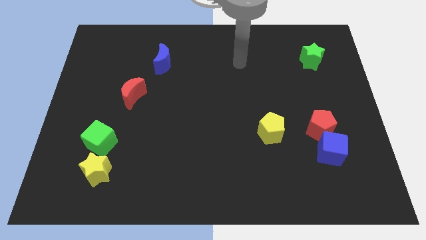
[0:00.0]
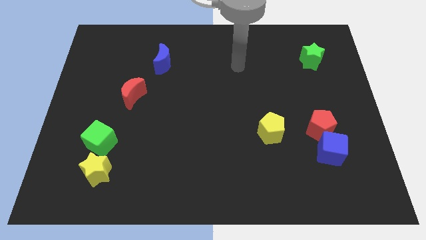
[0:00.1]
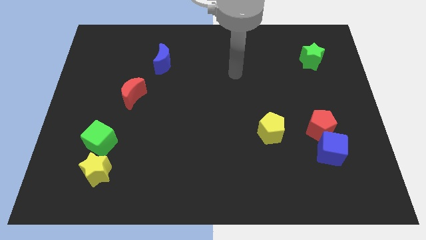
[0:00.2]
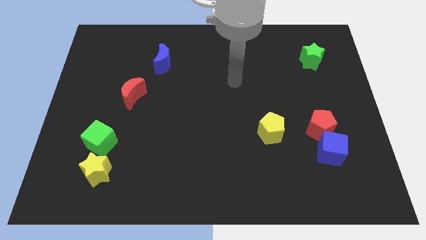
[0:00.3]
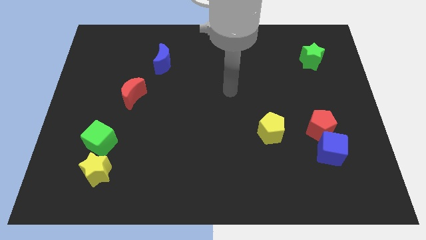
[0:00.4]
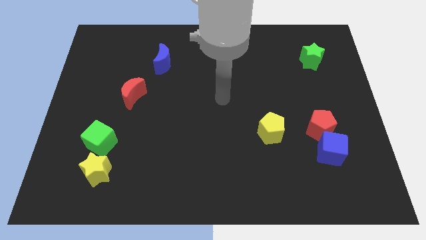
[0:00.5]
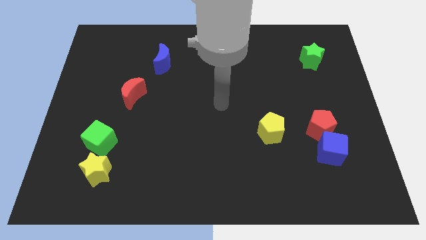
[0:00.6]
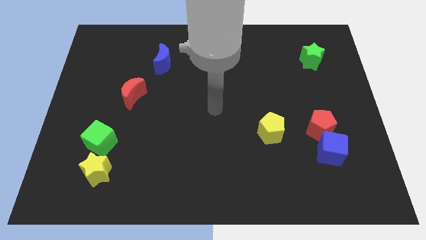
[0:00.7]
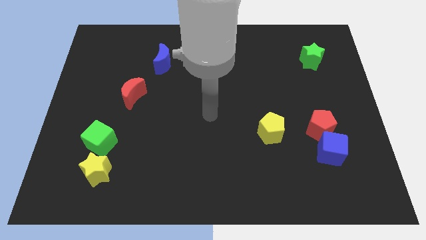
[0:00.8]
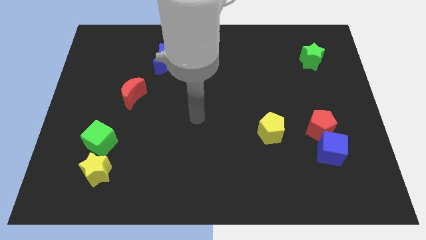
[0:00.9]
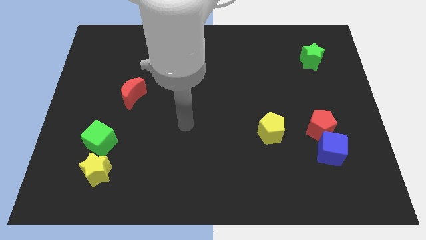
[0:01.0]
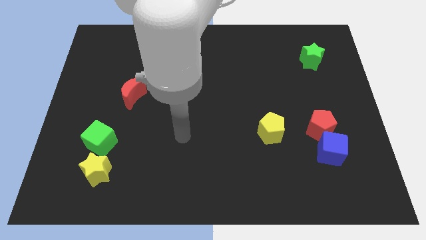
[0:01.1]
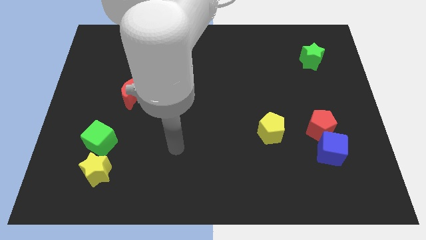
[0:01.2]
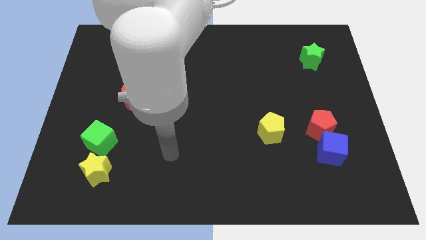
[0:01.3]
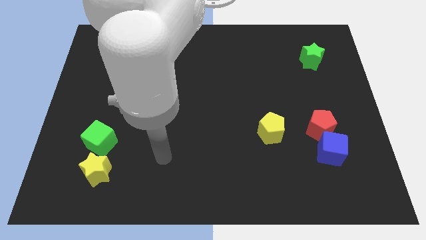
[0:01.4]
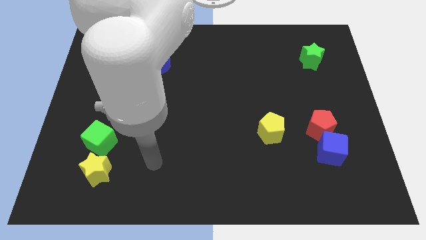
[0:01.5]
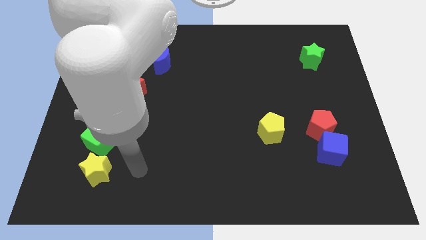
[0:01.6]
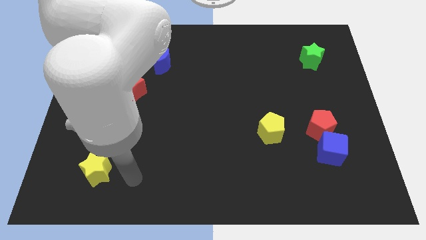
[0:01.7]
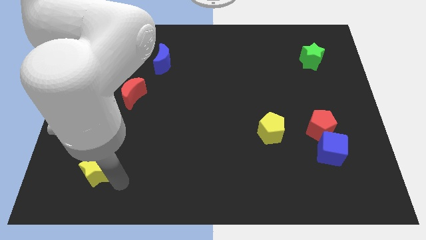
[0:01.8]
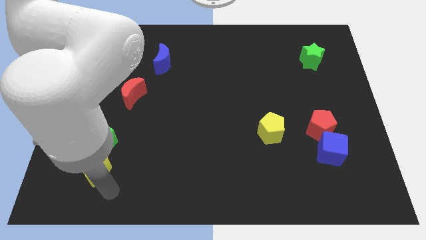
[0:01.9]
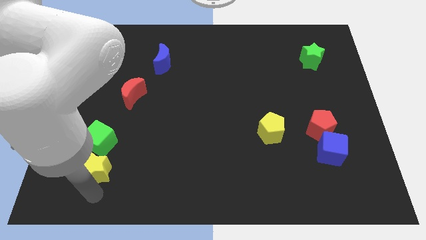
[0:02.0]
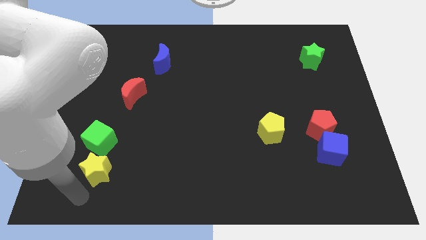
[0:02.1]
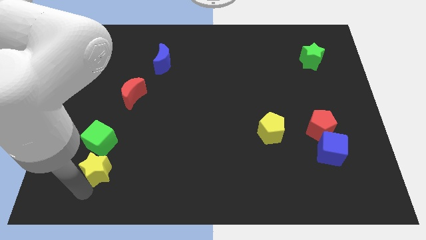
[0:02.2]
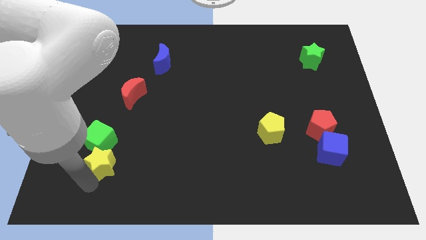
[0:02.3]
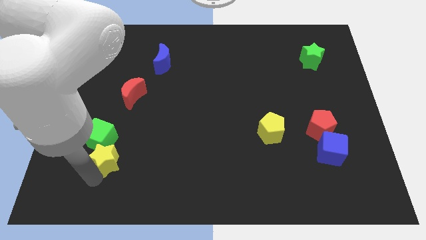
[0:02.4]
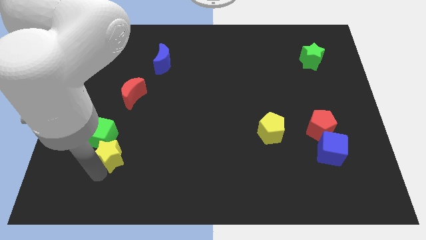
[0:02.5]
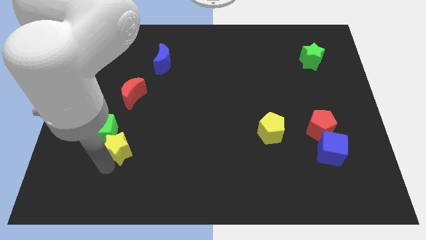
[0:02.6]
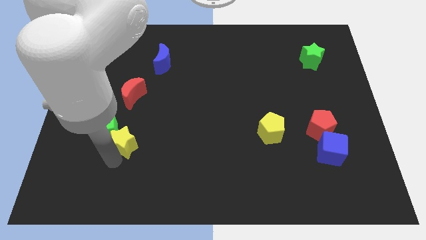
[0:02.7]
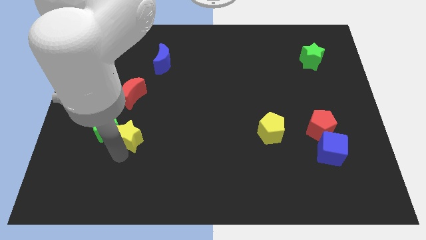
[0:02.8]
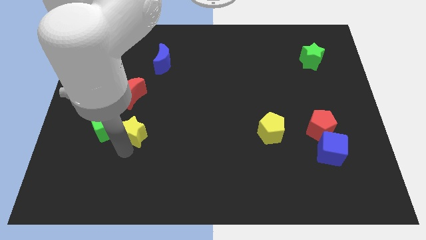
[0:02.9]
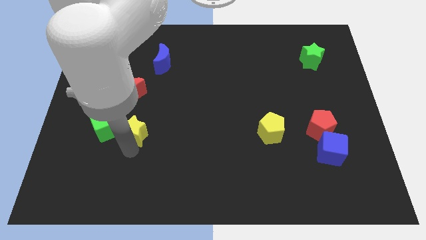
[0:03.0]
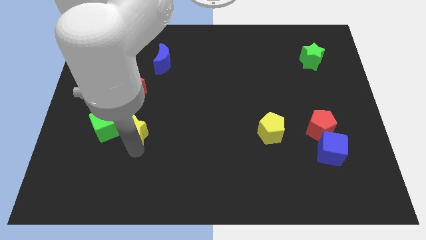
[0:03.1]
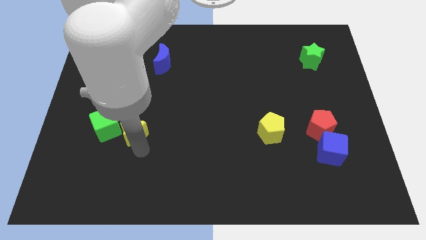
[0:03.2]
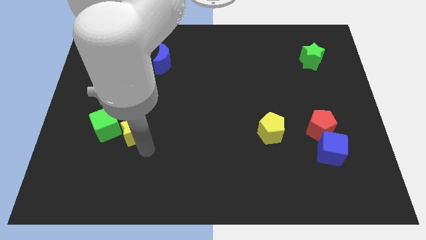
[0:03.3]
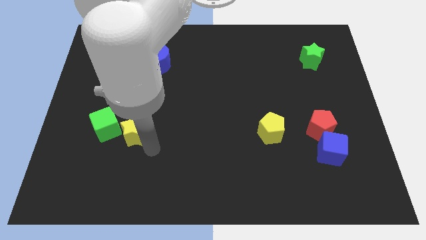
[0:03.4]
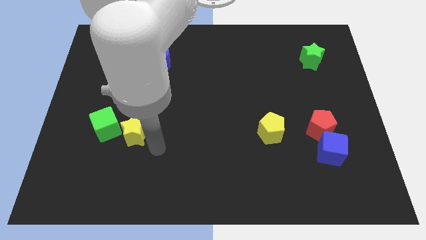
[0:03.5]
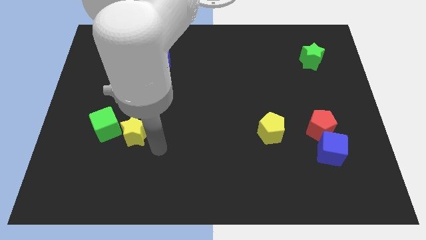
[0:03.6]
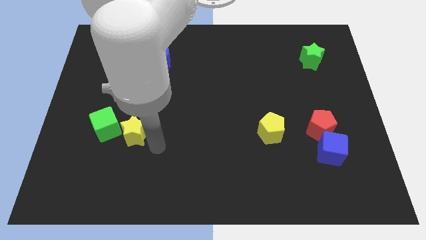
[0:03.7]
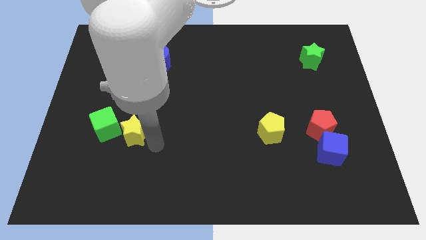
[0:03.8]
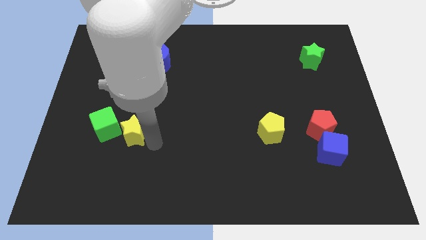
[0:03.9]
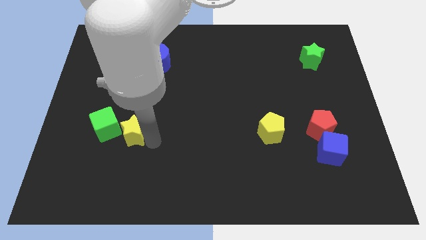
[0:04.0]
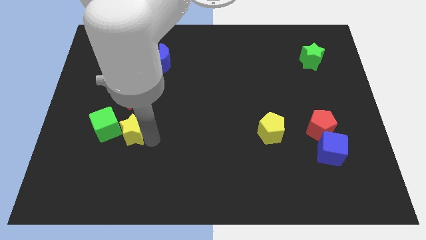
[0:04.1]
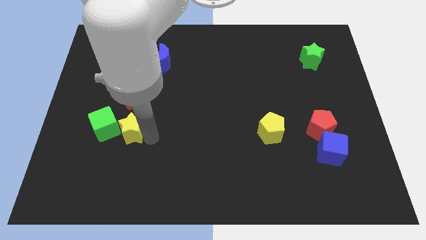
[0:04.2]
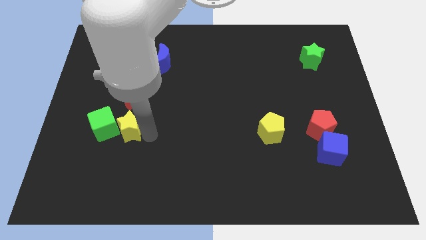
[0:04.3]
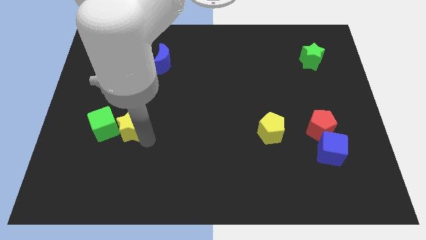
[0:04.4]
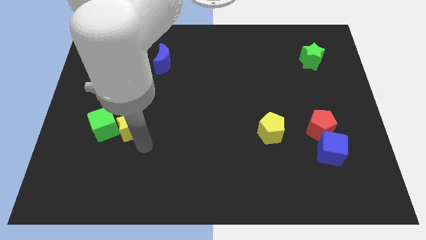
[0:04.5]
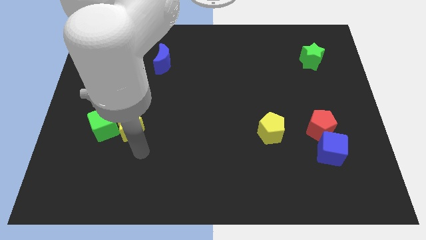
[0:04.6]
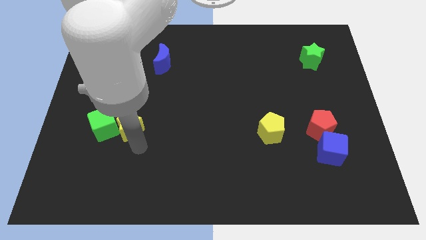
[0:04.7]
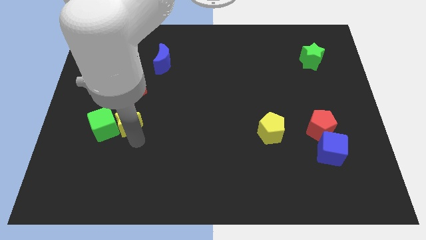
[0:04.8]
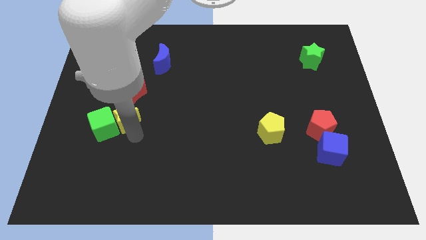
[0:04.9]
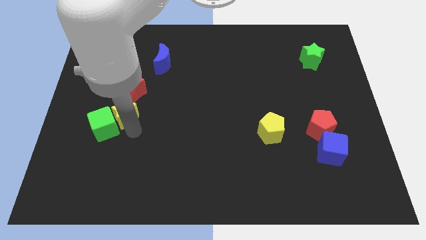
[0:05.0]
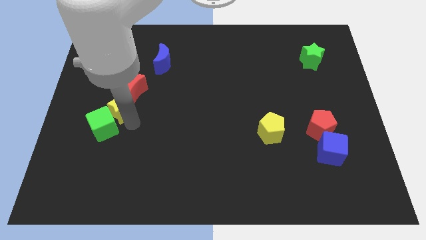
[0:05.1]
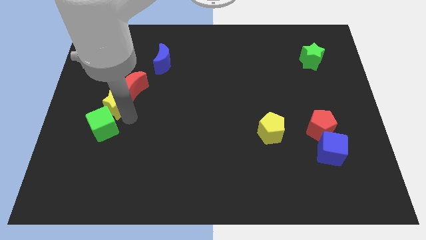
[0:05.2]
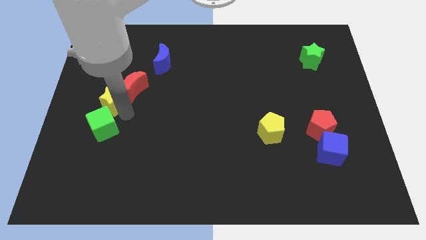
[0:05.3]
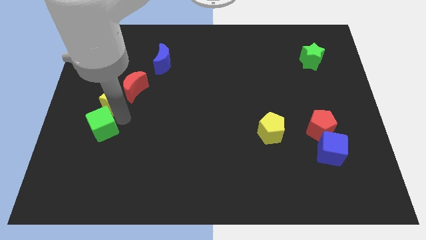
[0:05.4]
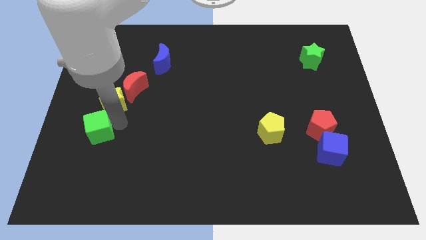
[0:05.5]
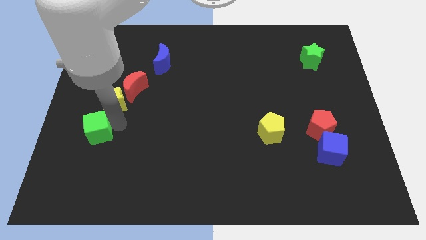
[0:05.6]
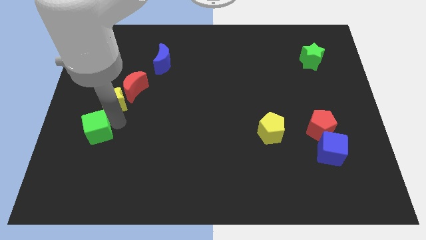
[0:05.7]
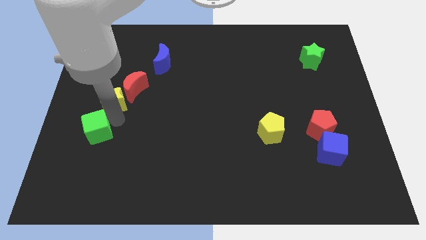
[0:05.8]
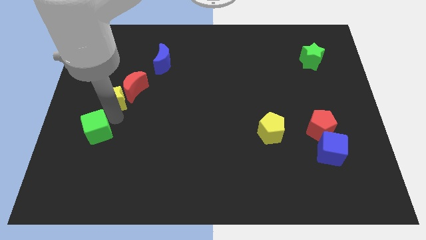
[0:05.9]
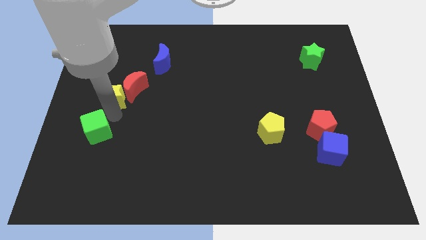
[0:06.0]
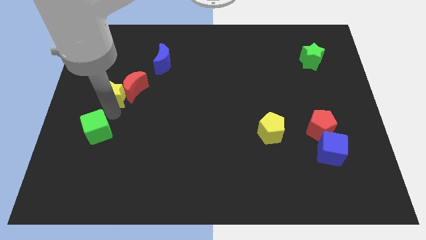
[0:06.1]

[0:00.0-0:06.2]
push the yellow star upwards

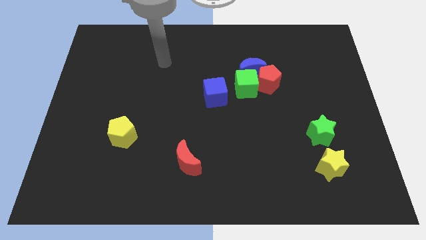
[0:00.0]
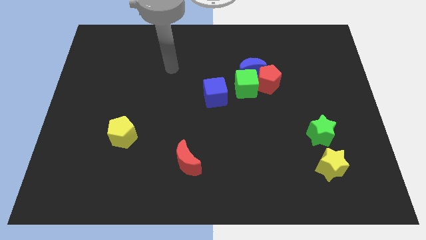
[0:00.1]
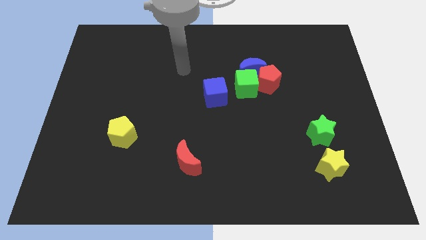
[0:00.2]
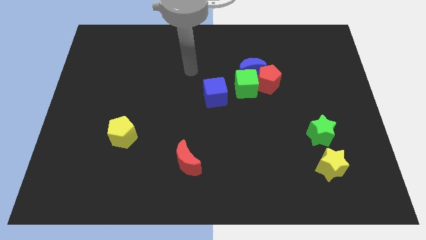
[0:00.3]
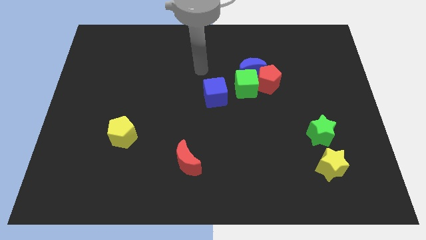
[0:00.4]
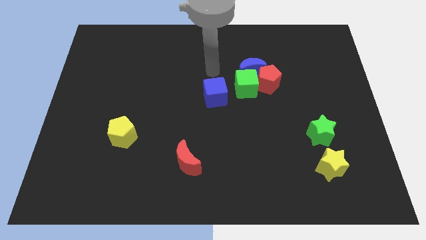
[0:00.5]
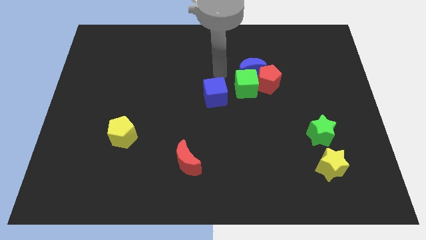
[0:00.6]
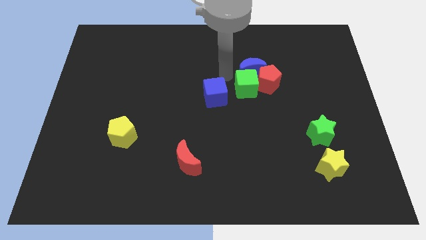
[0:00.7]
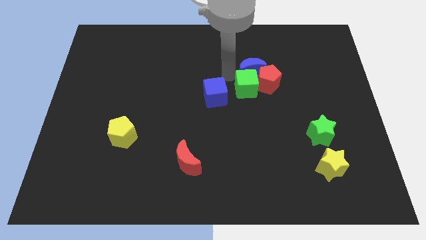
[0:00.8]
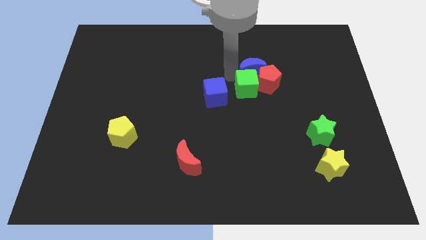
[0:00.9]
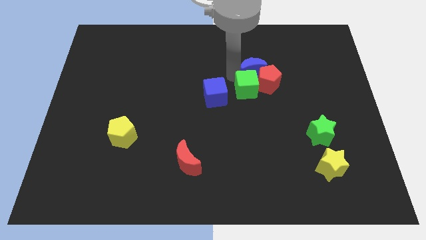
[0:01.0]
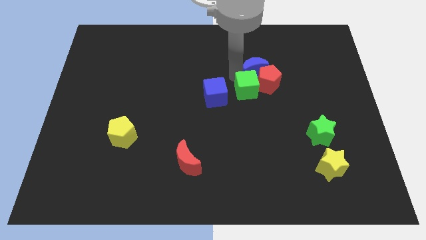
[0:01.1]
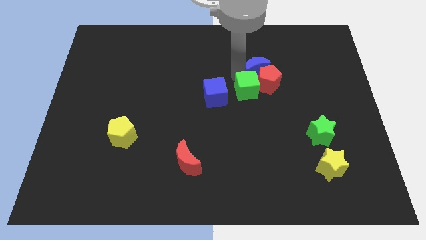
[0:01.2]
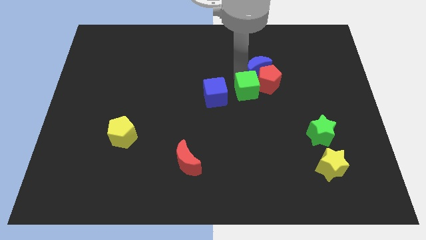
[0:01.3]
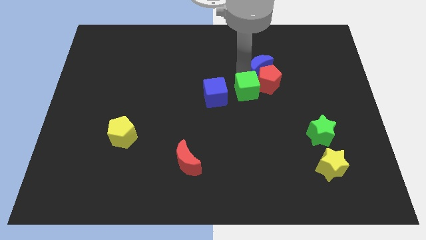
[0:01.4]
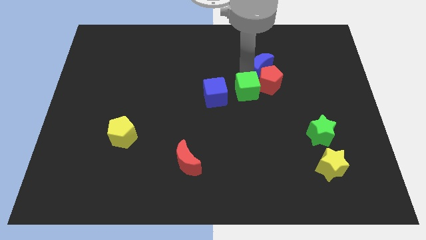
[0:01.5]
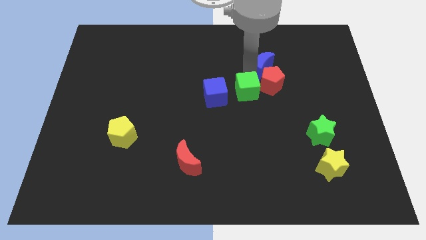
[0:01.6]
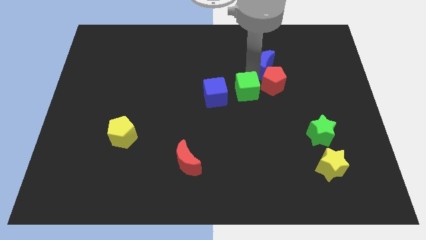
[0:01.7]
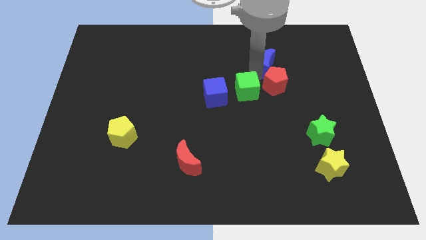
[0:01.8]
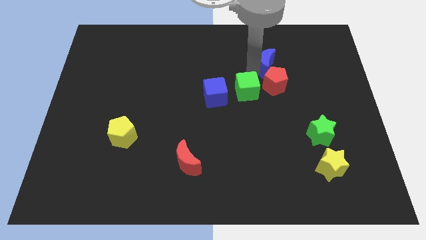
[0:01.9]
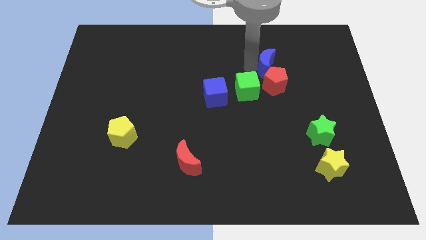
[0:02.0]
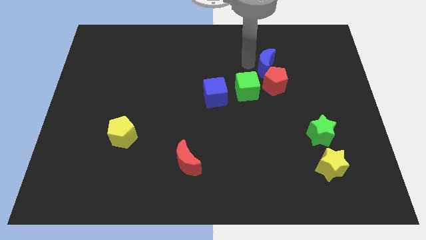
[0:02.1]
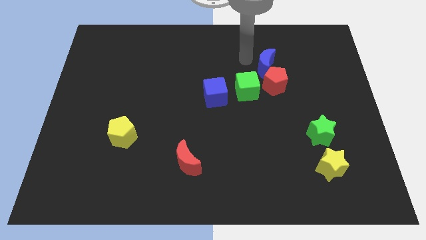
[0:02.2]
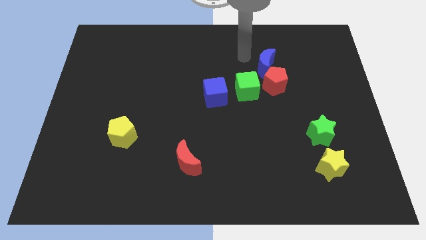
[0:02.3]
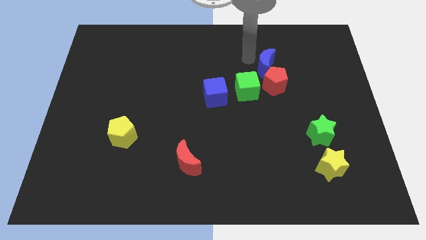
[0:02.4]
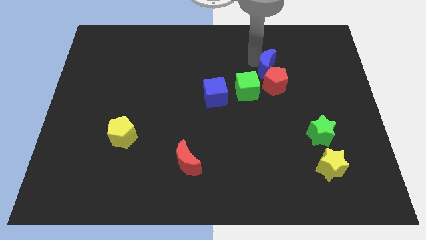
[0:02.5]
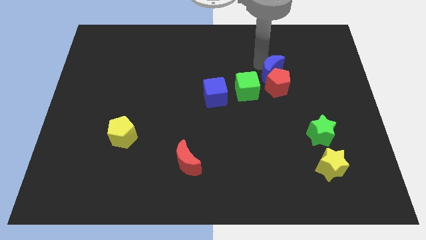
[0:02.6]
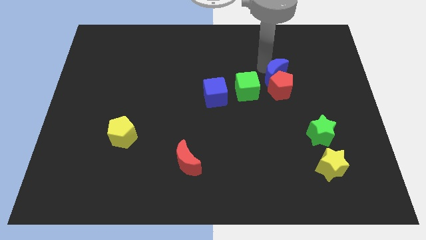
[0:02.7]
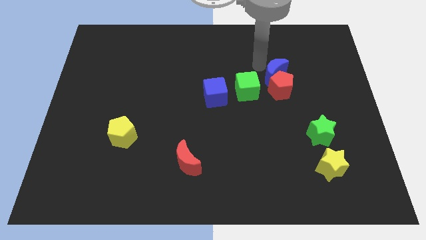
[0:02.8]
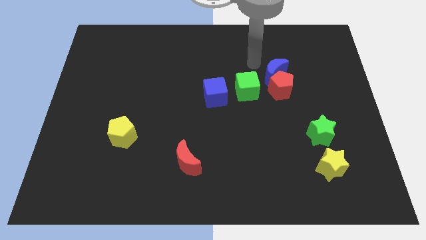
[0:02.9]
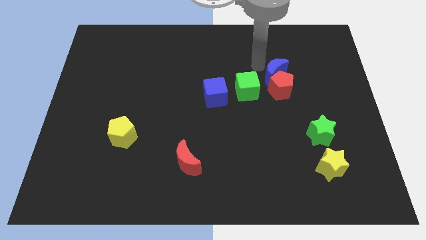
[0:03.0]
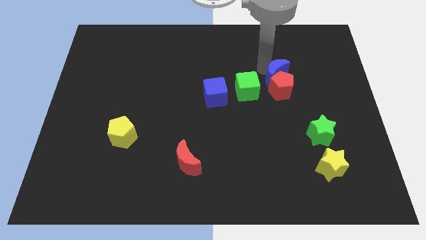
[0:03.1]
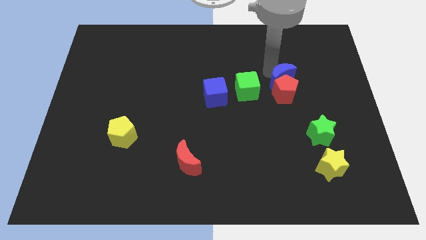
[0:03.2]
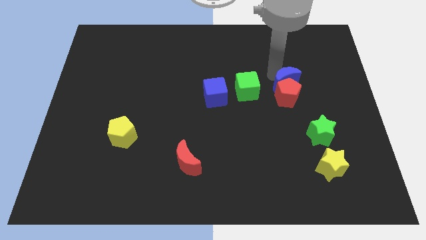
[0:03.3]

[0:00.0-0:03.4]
slightly slide the blue moon down and right diagonally
